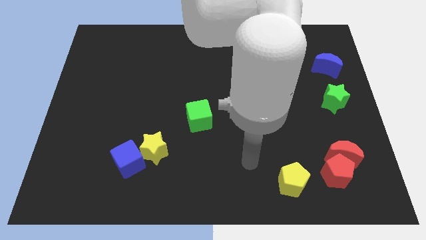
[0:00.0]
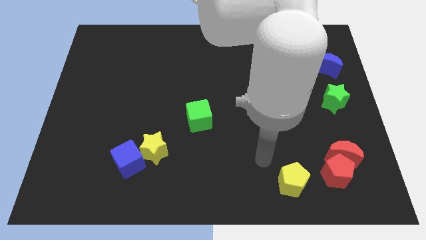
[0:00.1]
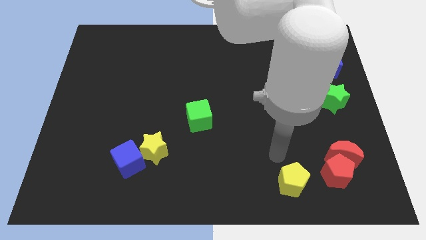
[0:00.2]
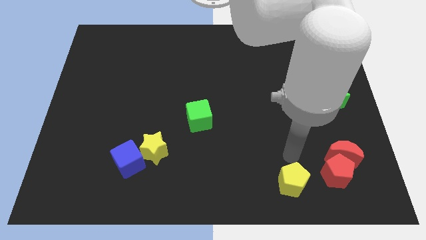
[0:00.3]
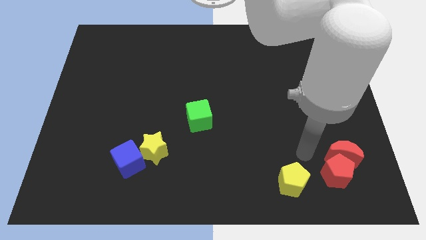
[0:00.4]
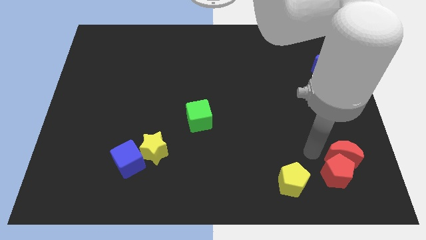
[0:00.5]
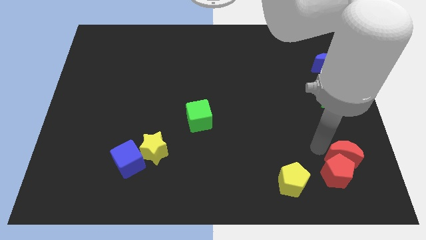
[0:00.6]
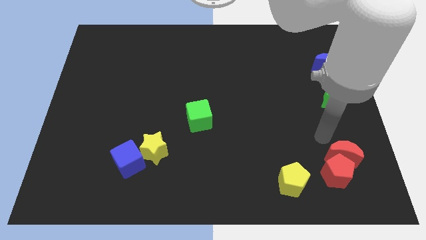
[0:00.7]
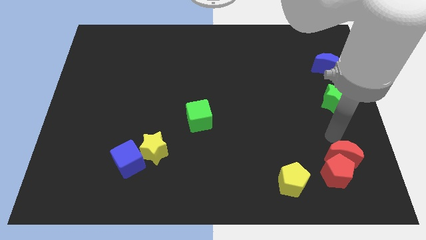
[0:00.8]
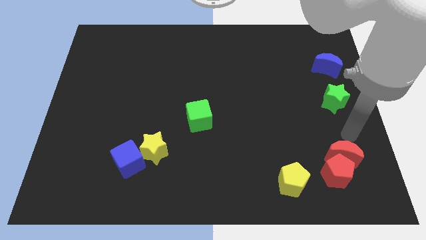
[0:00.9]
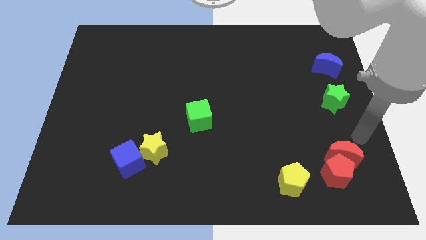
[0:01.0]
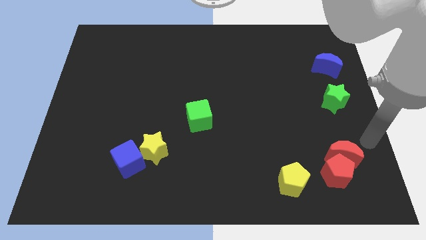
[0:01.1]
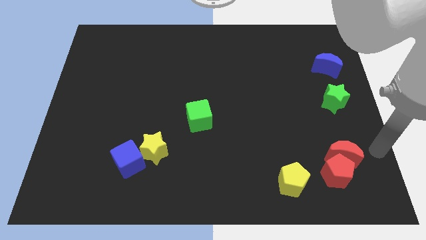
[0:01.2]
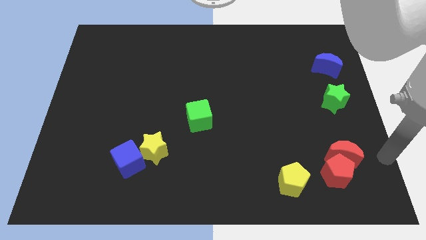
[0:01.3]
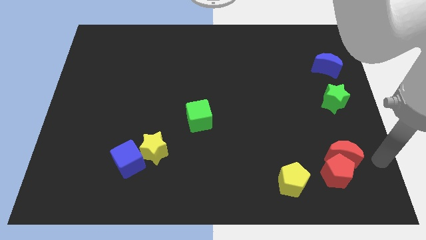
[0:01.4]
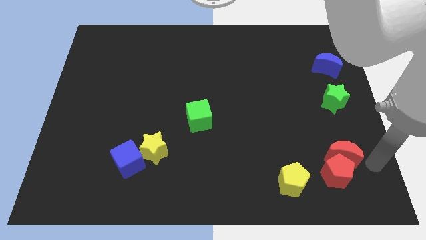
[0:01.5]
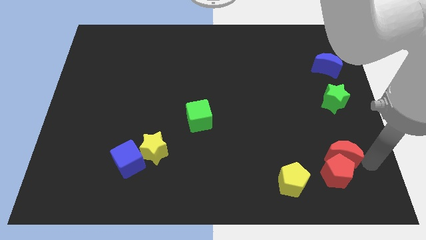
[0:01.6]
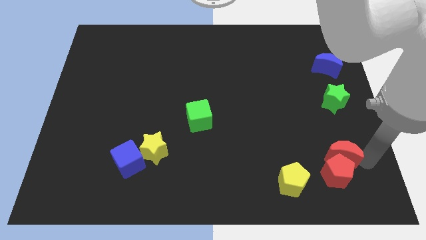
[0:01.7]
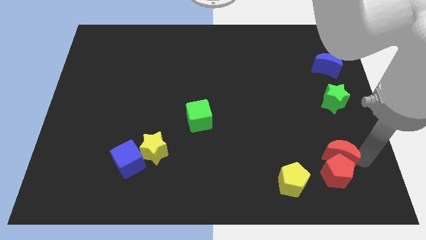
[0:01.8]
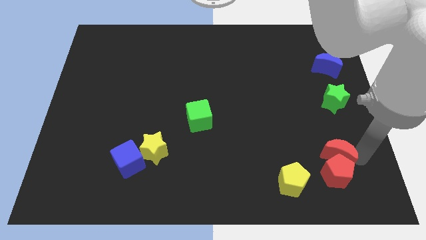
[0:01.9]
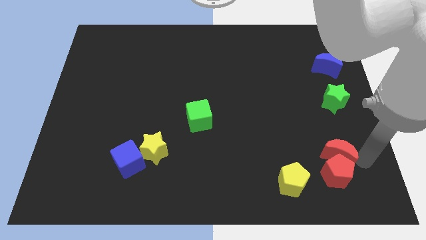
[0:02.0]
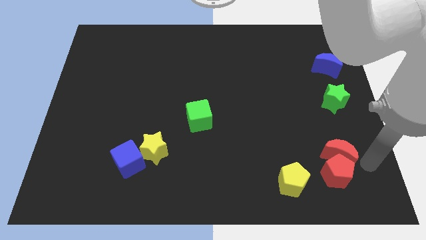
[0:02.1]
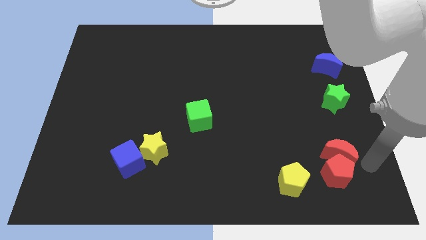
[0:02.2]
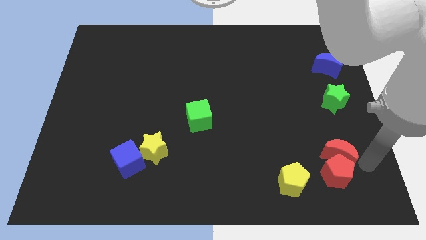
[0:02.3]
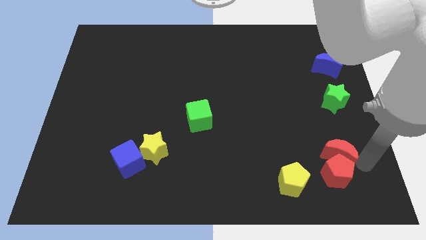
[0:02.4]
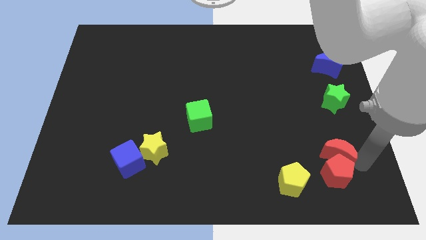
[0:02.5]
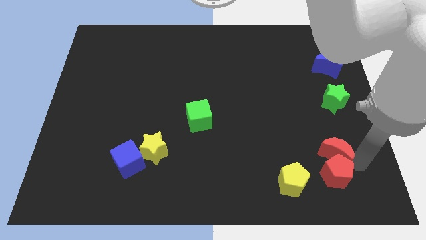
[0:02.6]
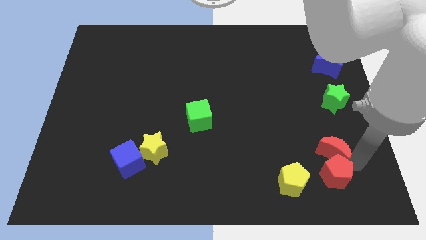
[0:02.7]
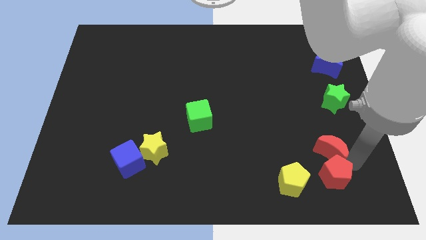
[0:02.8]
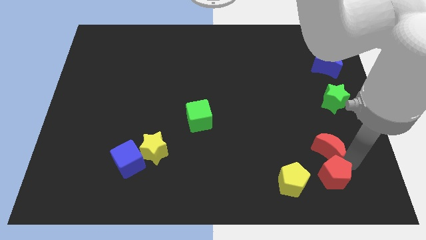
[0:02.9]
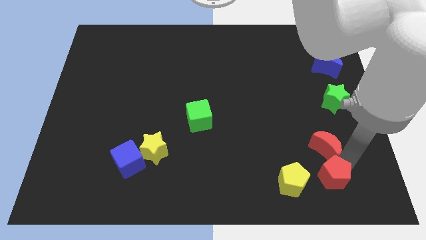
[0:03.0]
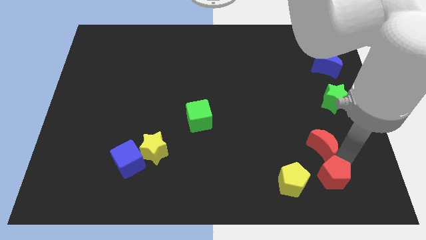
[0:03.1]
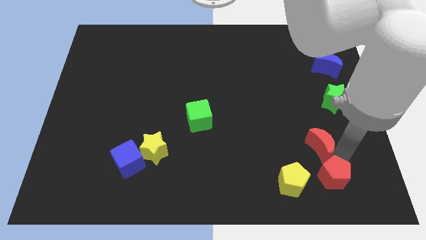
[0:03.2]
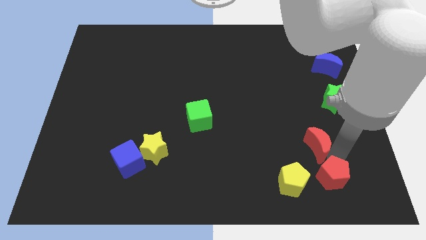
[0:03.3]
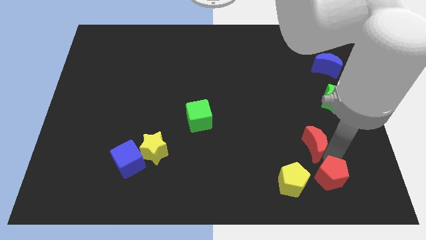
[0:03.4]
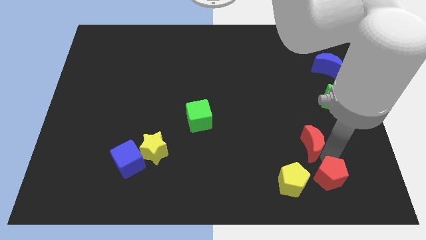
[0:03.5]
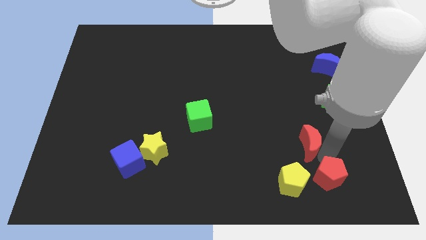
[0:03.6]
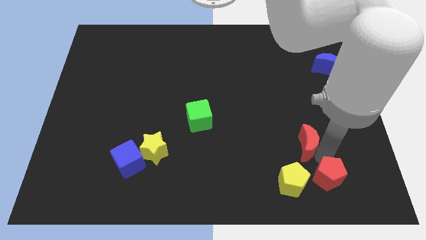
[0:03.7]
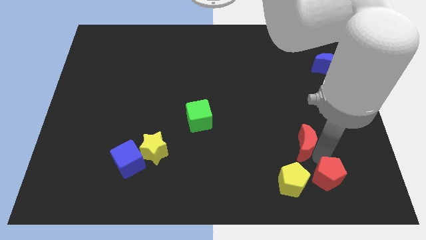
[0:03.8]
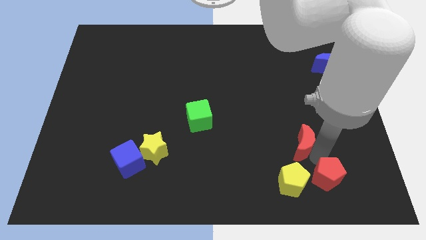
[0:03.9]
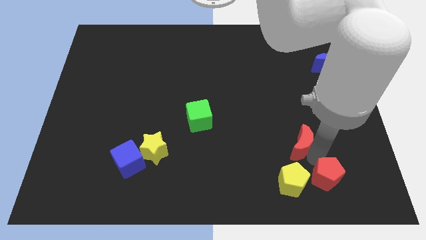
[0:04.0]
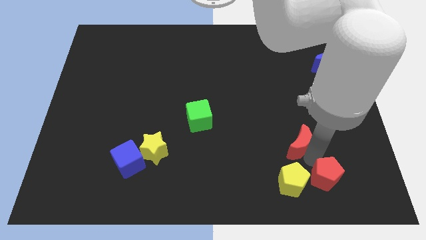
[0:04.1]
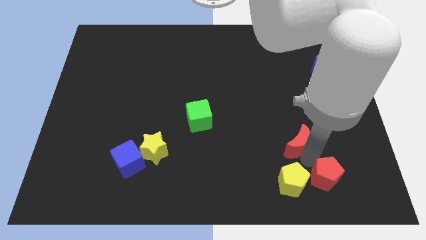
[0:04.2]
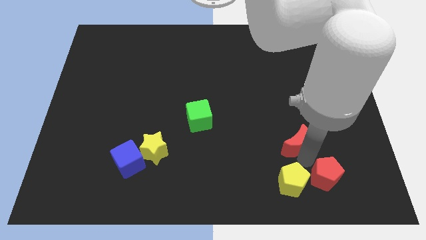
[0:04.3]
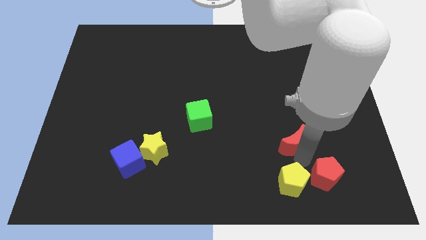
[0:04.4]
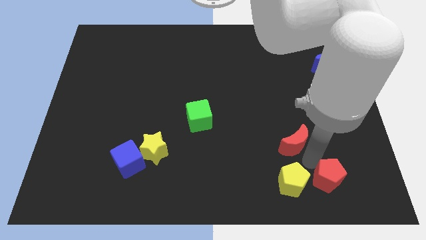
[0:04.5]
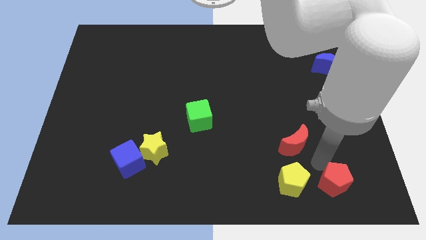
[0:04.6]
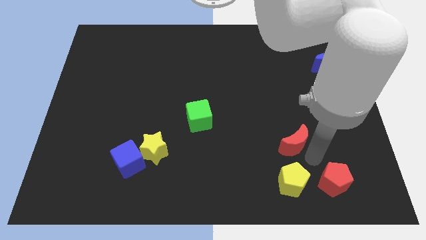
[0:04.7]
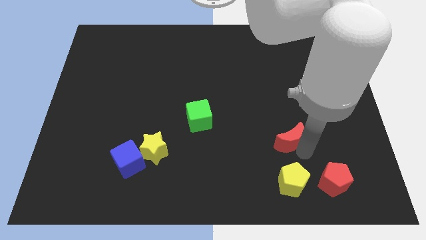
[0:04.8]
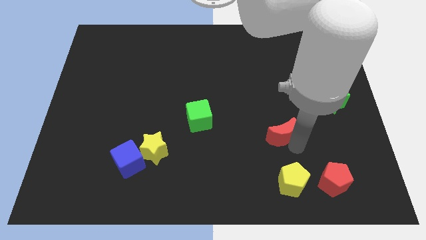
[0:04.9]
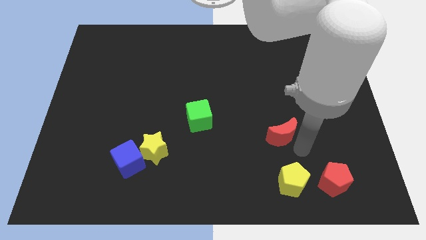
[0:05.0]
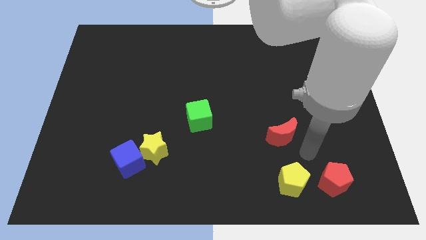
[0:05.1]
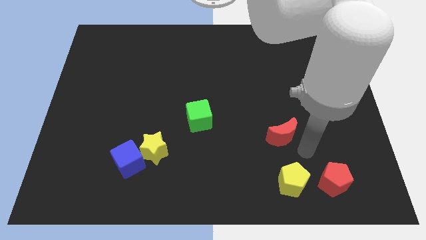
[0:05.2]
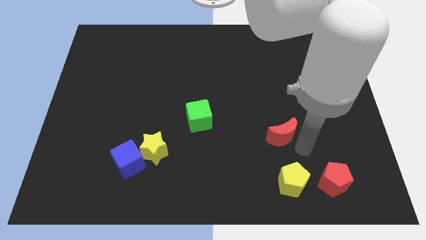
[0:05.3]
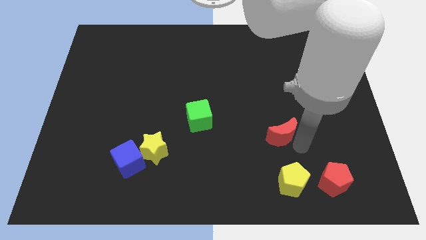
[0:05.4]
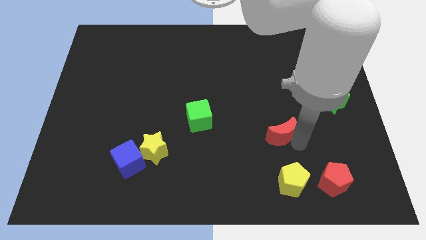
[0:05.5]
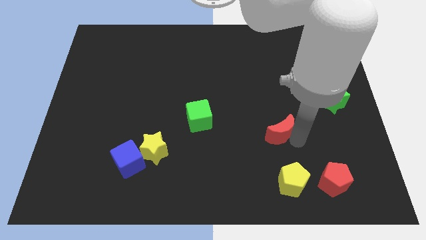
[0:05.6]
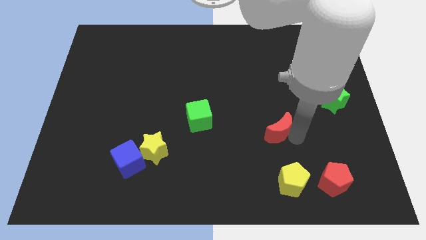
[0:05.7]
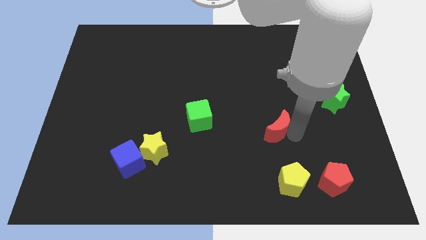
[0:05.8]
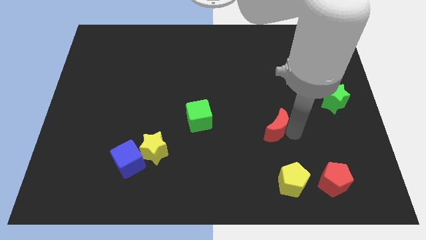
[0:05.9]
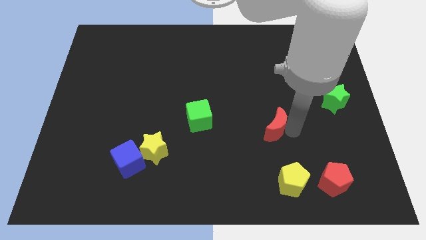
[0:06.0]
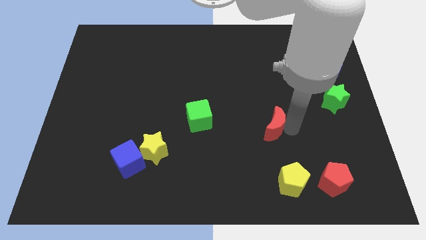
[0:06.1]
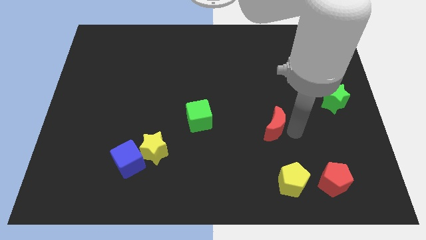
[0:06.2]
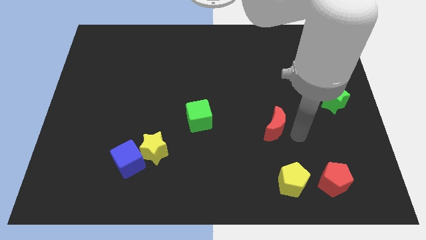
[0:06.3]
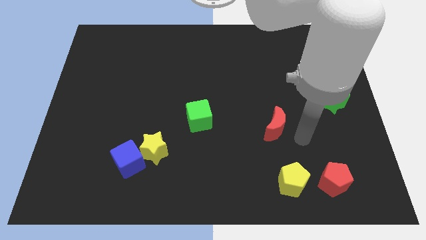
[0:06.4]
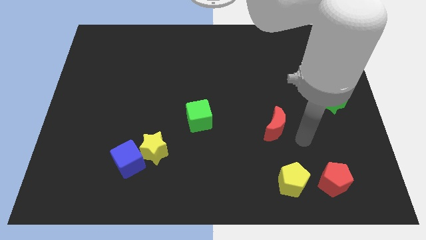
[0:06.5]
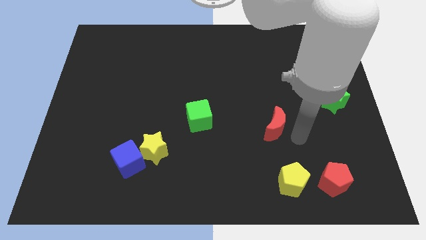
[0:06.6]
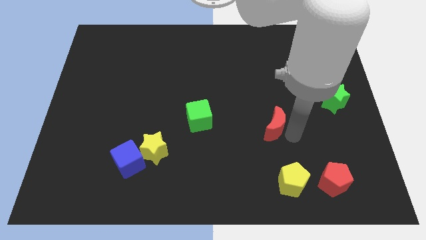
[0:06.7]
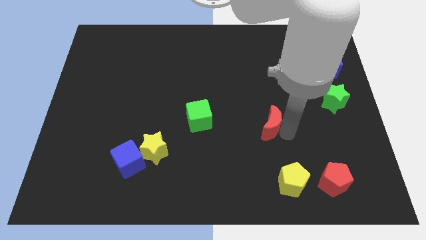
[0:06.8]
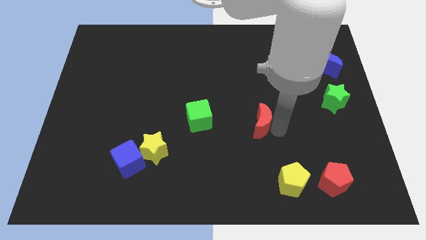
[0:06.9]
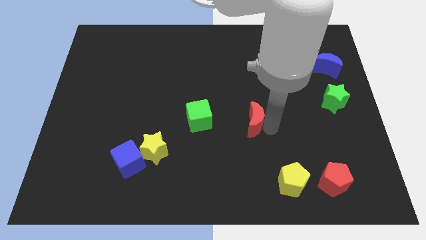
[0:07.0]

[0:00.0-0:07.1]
push the red moon to the middle of the board
